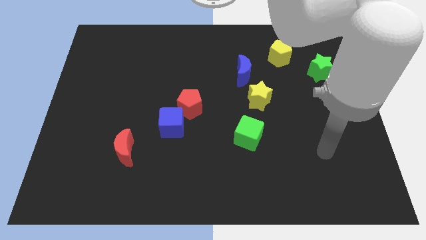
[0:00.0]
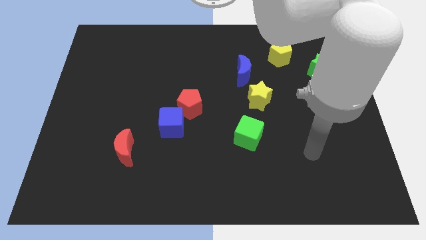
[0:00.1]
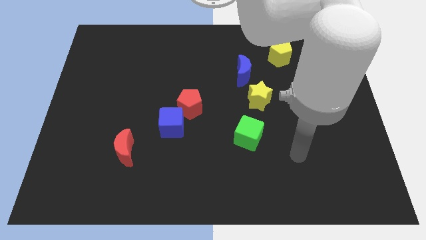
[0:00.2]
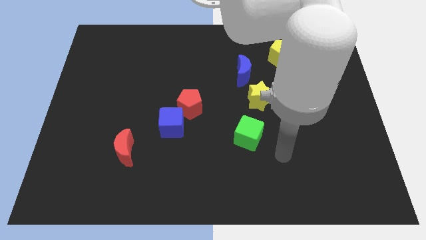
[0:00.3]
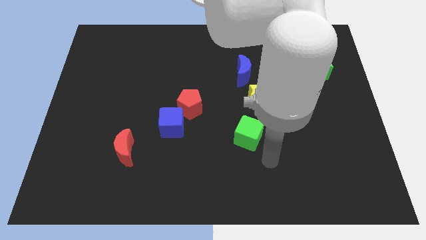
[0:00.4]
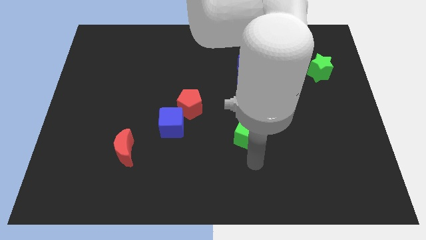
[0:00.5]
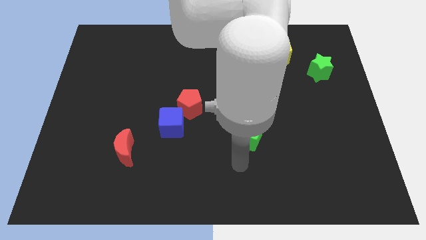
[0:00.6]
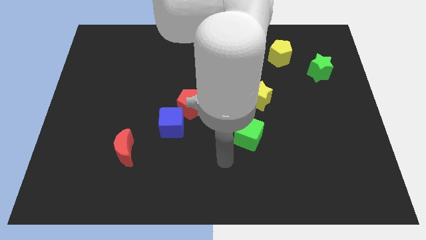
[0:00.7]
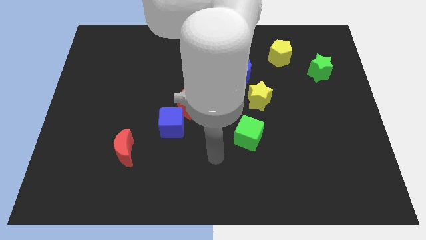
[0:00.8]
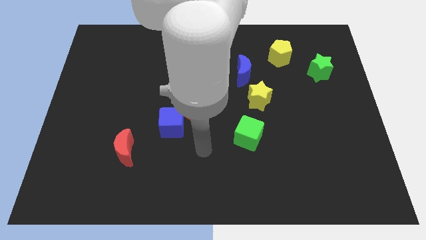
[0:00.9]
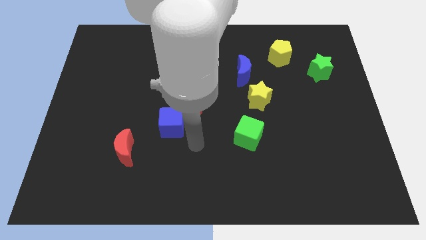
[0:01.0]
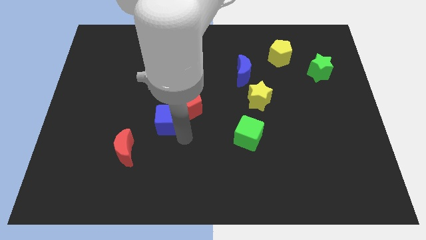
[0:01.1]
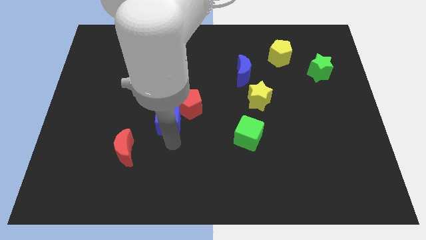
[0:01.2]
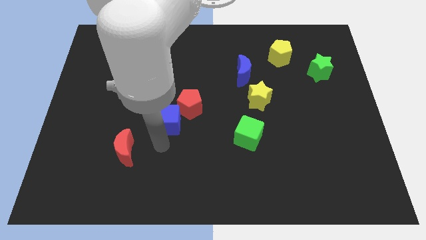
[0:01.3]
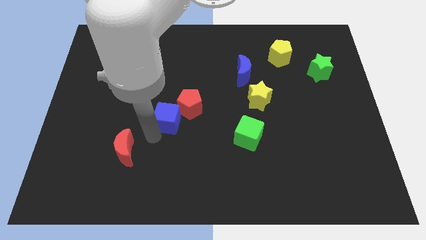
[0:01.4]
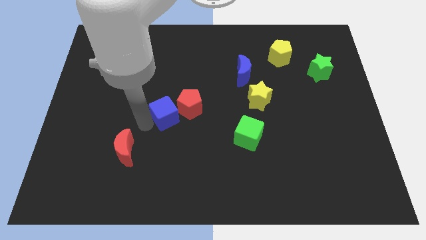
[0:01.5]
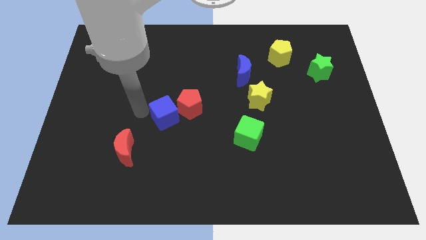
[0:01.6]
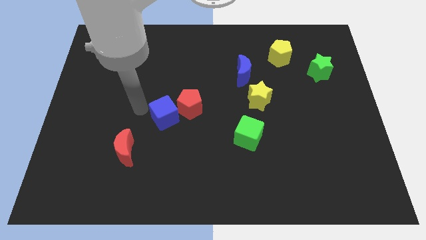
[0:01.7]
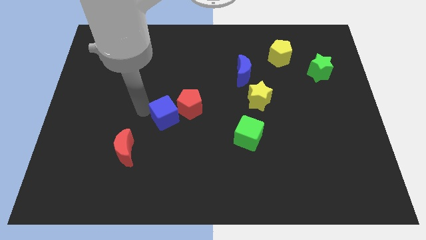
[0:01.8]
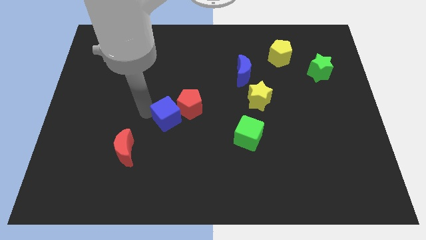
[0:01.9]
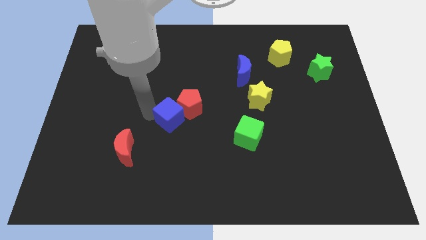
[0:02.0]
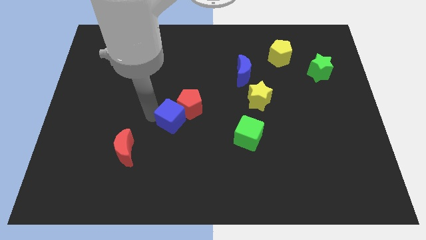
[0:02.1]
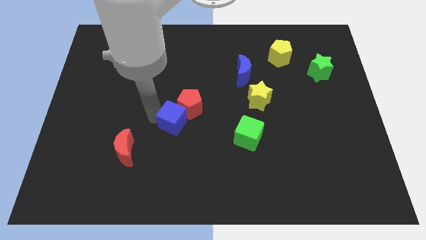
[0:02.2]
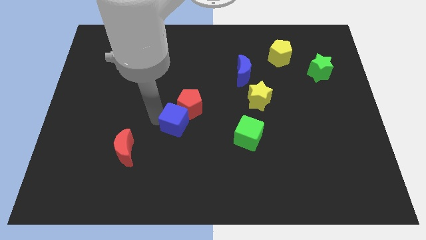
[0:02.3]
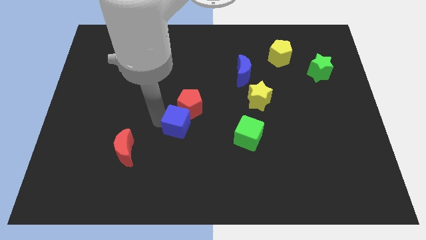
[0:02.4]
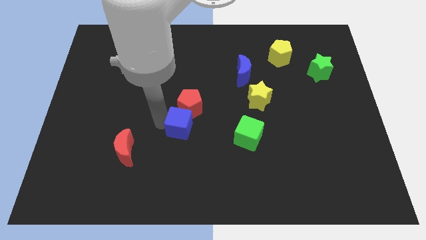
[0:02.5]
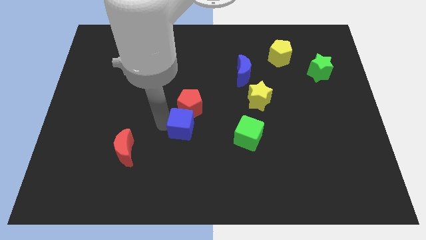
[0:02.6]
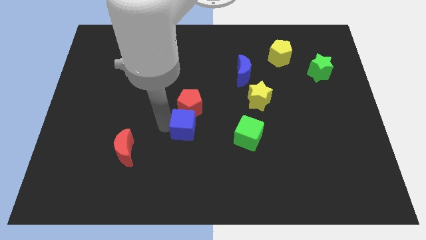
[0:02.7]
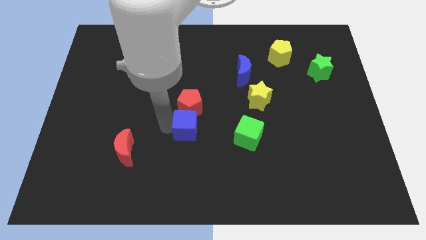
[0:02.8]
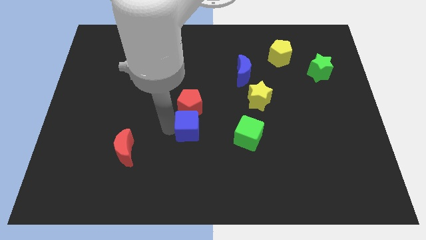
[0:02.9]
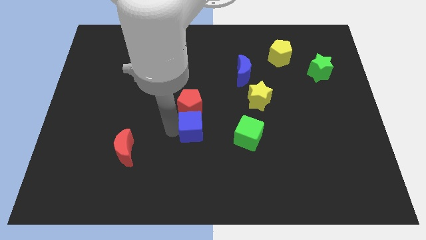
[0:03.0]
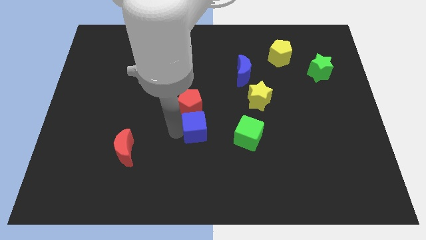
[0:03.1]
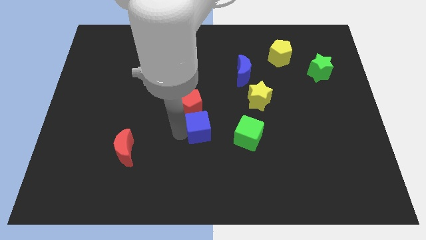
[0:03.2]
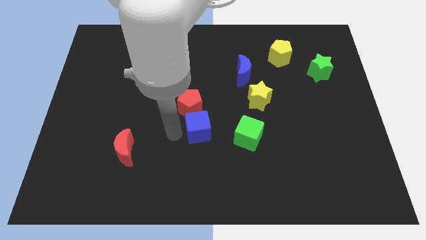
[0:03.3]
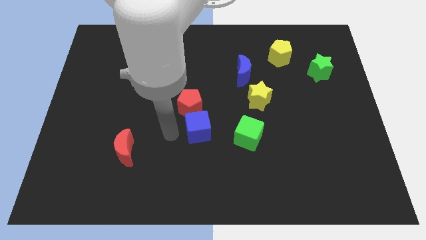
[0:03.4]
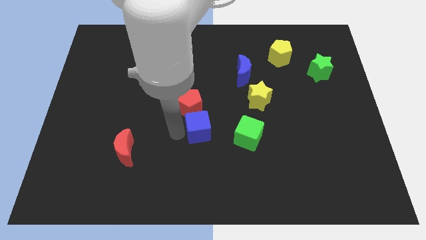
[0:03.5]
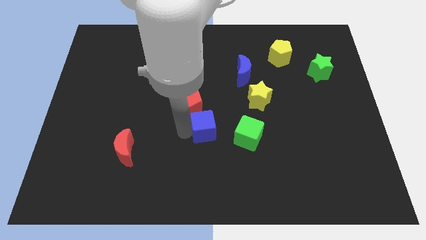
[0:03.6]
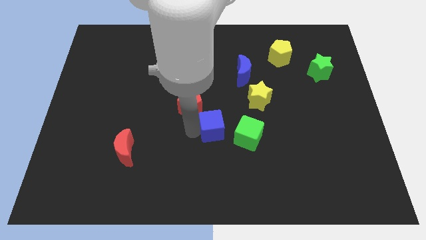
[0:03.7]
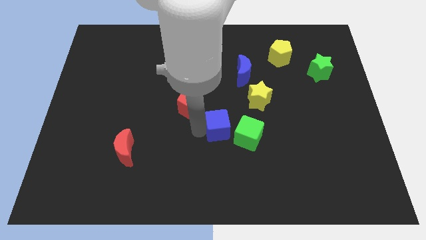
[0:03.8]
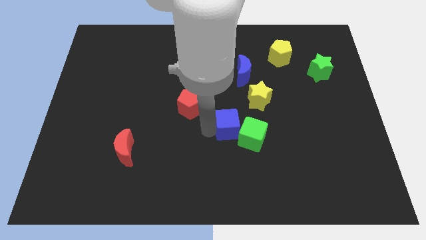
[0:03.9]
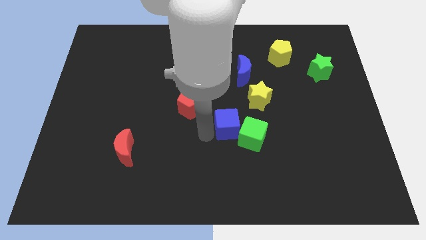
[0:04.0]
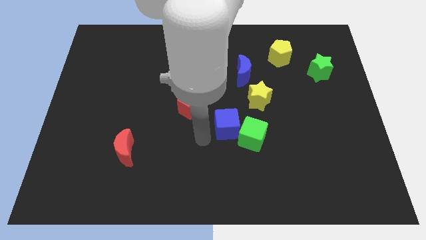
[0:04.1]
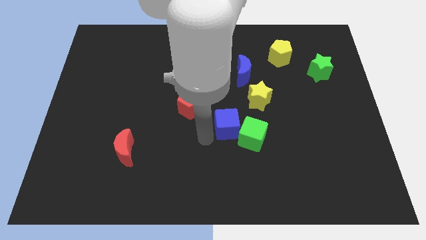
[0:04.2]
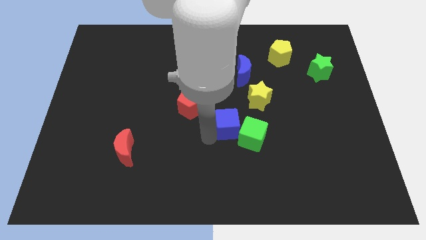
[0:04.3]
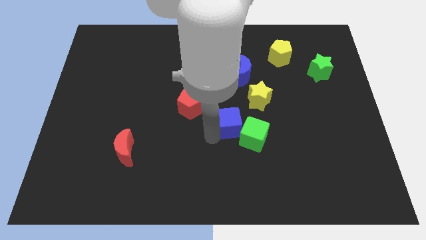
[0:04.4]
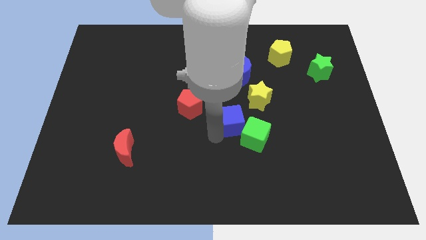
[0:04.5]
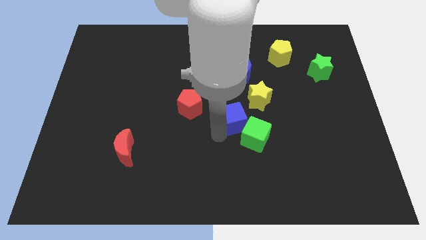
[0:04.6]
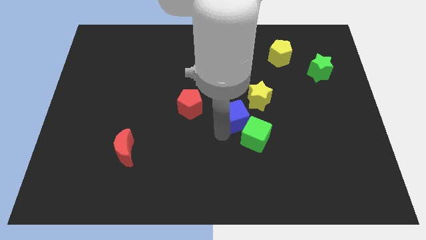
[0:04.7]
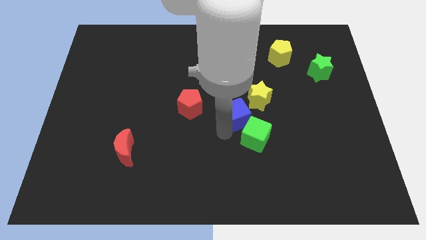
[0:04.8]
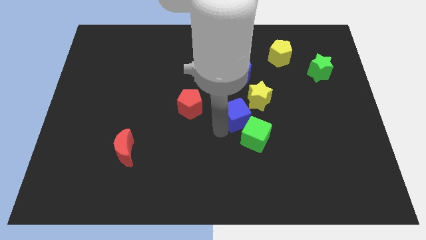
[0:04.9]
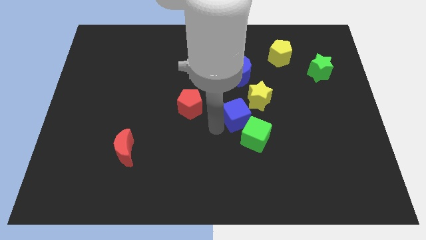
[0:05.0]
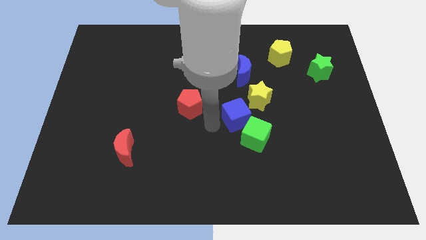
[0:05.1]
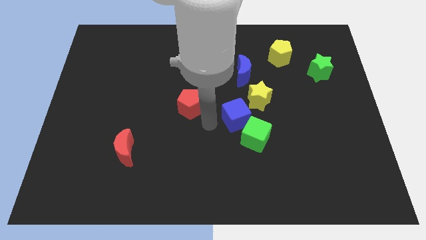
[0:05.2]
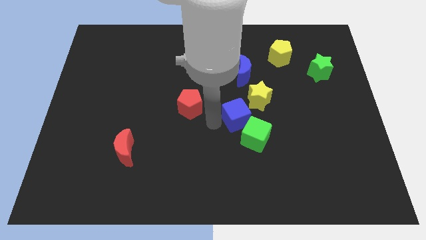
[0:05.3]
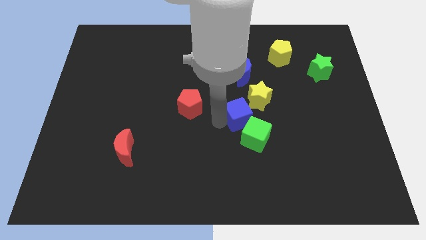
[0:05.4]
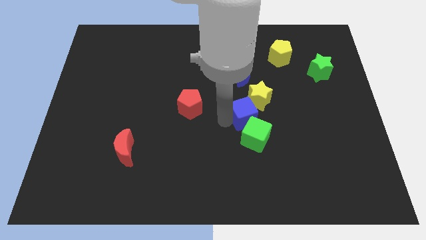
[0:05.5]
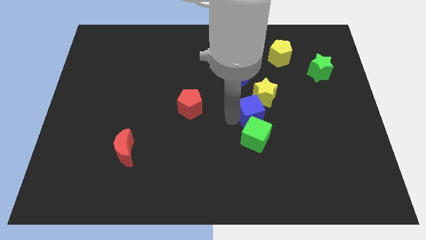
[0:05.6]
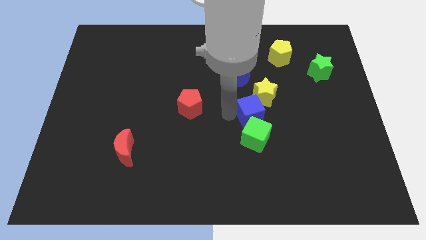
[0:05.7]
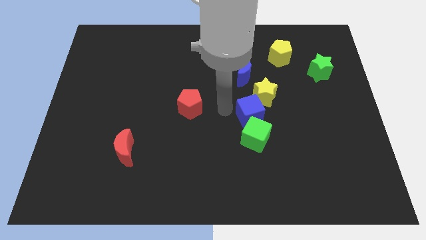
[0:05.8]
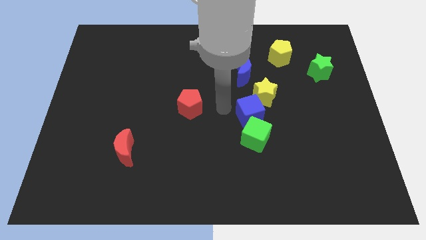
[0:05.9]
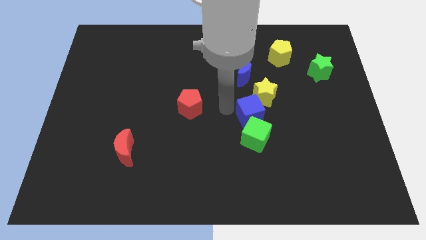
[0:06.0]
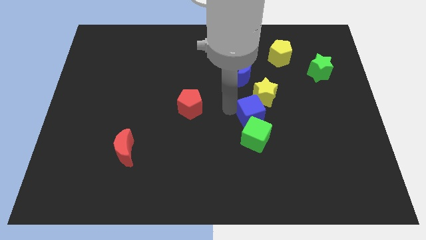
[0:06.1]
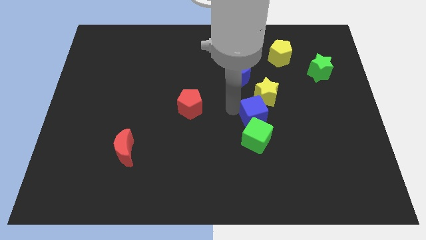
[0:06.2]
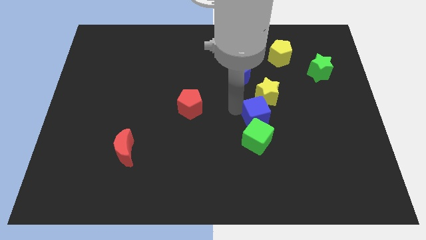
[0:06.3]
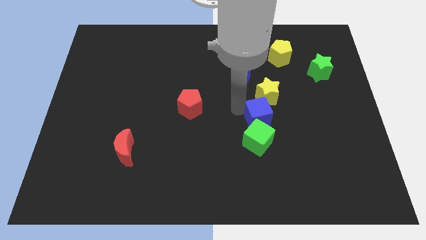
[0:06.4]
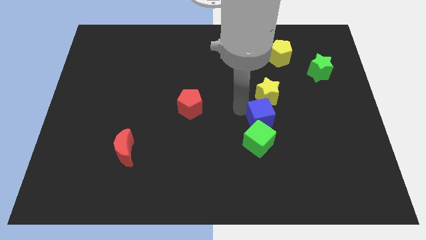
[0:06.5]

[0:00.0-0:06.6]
push the blue cube right

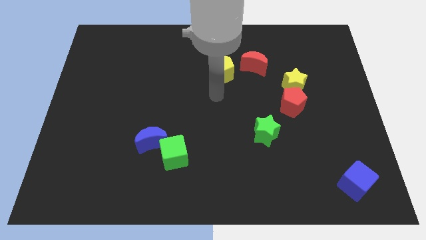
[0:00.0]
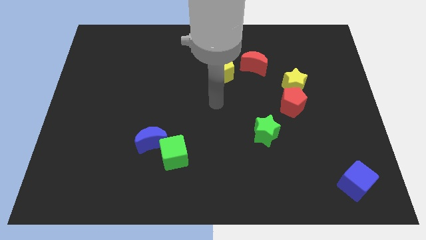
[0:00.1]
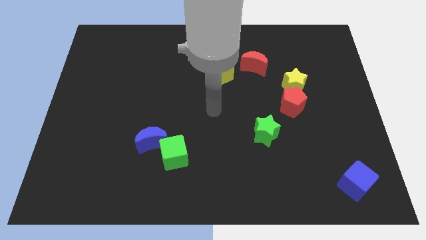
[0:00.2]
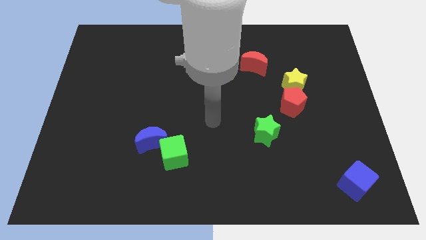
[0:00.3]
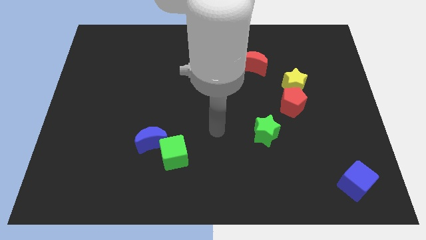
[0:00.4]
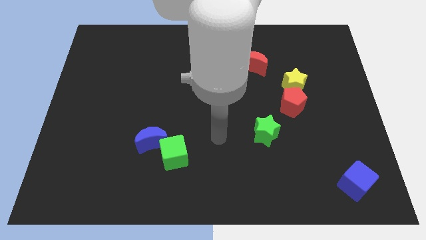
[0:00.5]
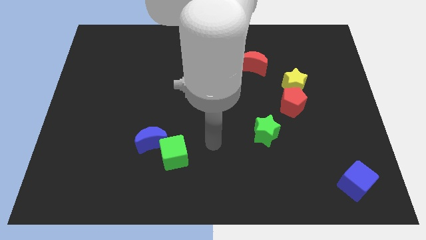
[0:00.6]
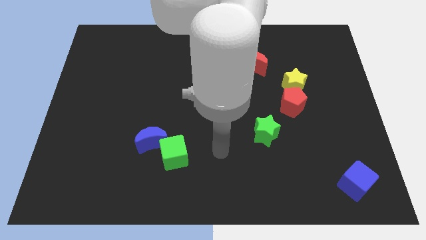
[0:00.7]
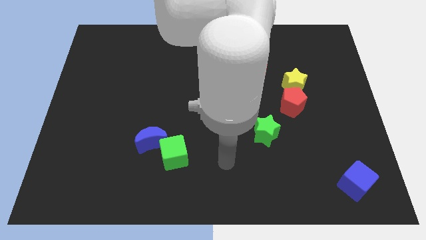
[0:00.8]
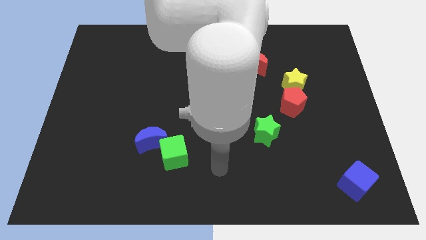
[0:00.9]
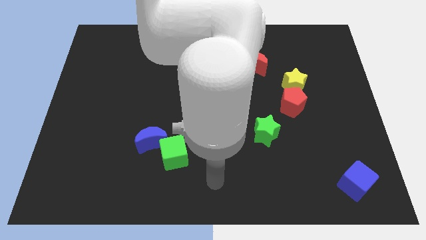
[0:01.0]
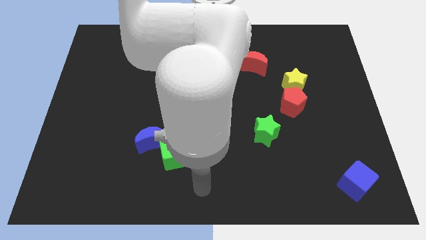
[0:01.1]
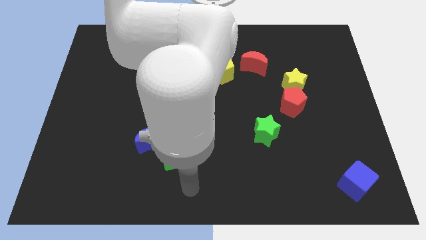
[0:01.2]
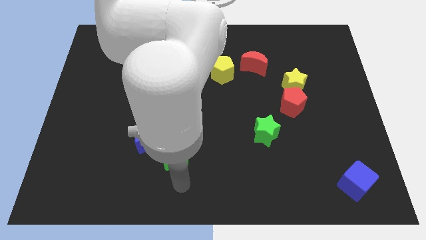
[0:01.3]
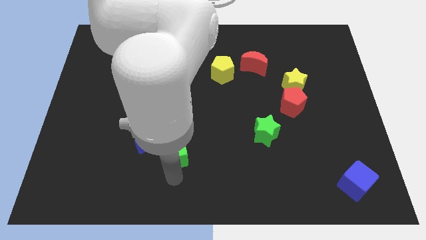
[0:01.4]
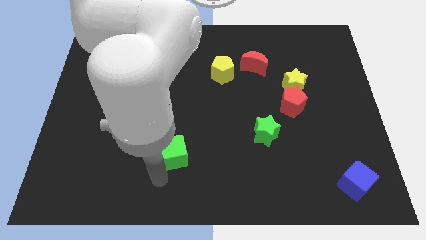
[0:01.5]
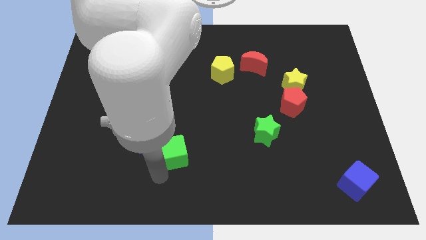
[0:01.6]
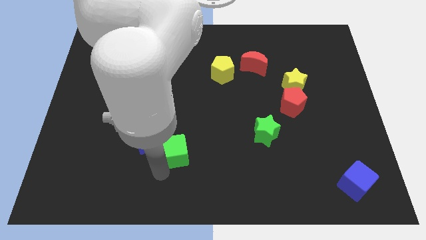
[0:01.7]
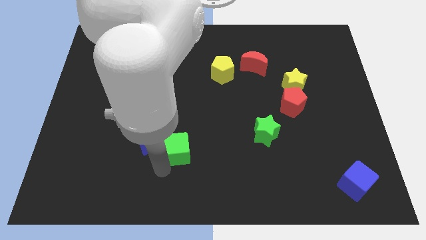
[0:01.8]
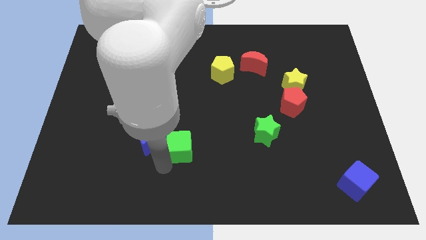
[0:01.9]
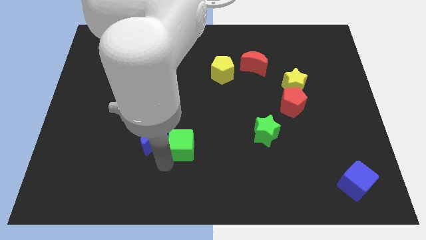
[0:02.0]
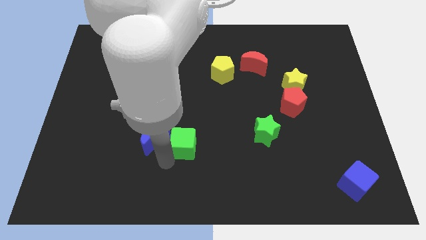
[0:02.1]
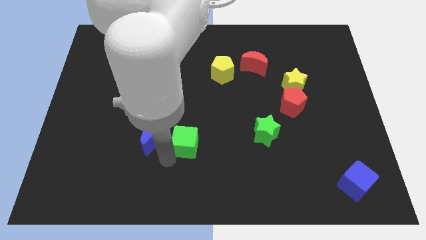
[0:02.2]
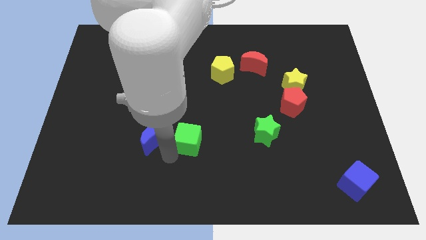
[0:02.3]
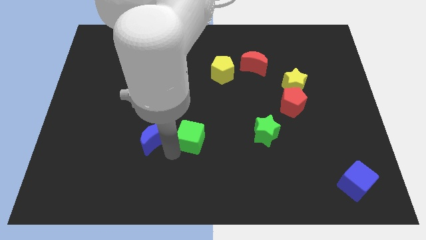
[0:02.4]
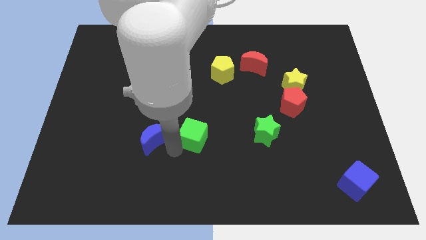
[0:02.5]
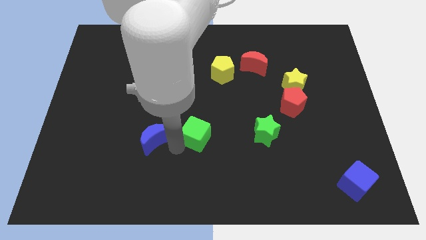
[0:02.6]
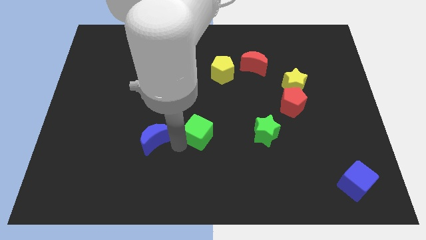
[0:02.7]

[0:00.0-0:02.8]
slide the green cube slightly upwards and to the right diagonally
